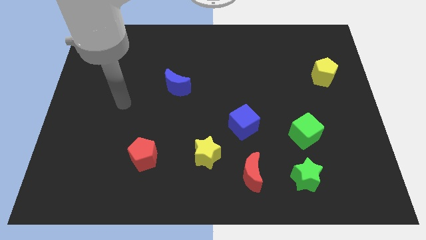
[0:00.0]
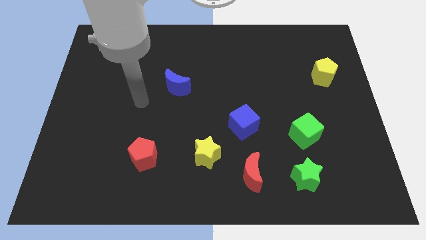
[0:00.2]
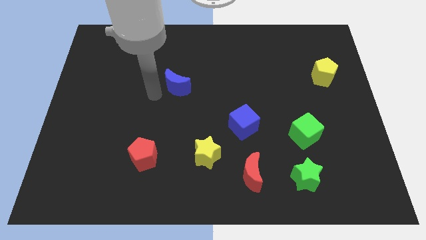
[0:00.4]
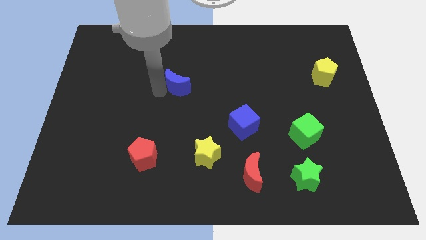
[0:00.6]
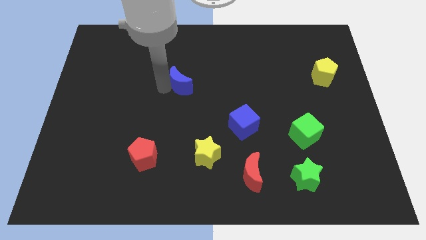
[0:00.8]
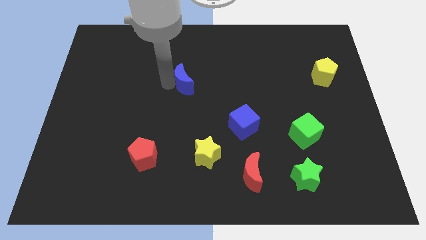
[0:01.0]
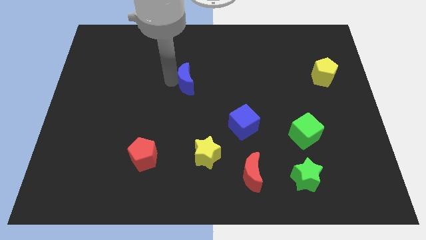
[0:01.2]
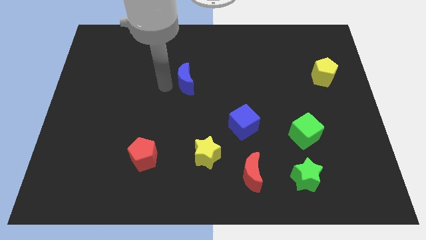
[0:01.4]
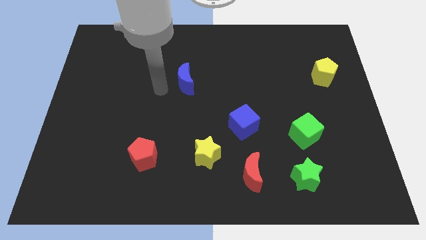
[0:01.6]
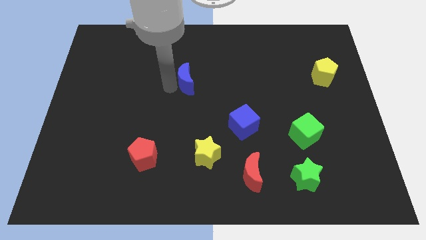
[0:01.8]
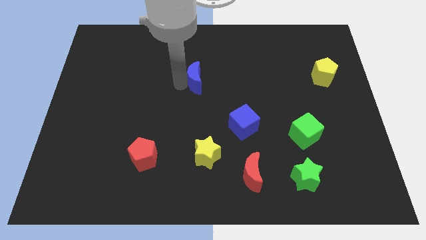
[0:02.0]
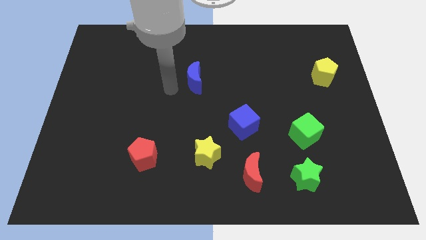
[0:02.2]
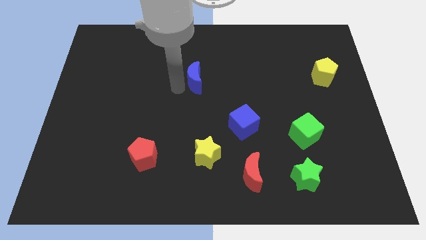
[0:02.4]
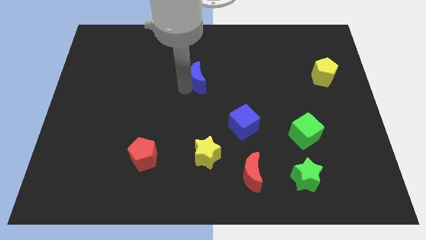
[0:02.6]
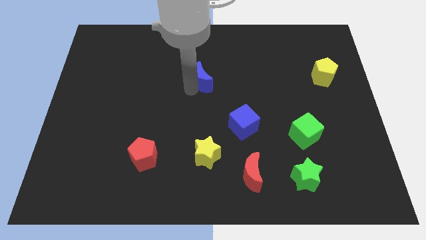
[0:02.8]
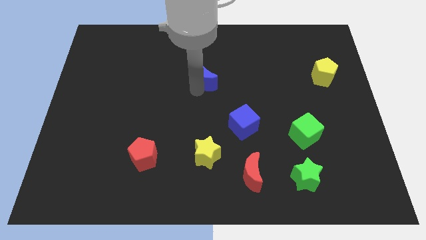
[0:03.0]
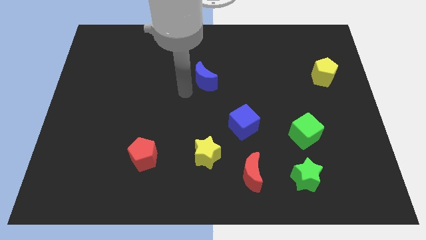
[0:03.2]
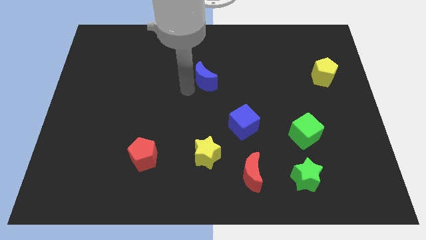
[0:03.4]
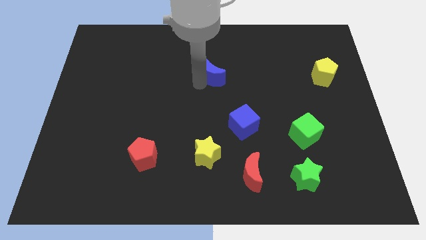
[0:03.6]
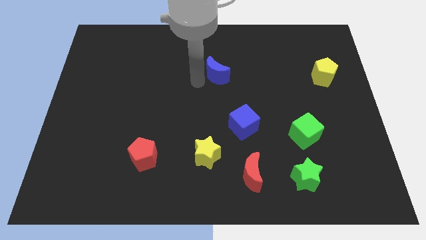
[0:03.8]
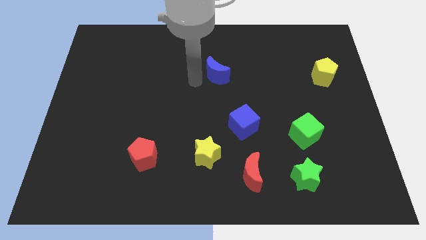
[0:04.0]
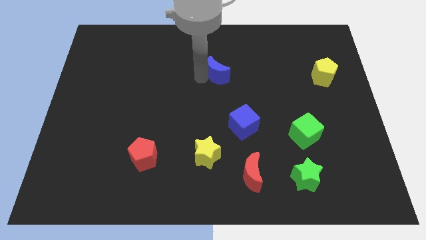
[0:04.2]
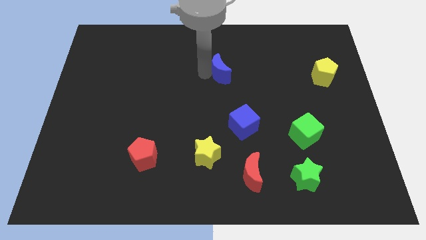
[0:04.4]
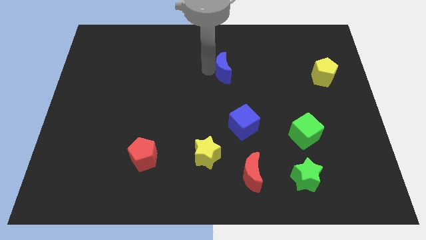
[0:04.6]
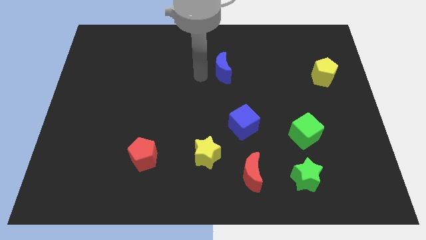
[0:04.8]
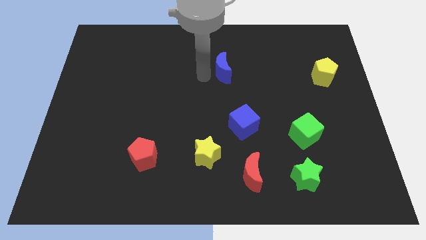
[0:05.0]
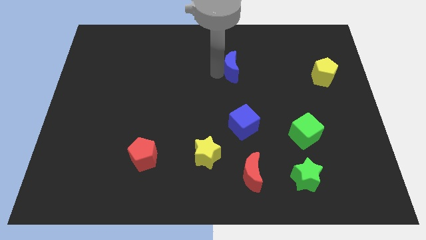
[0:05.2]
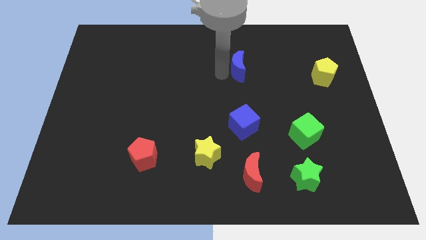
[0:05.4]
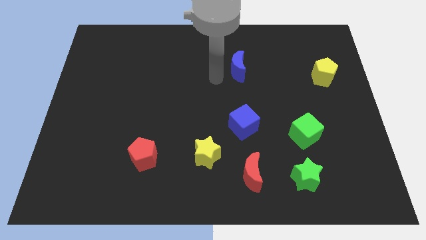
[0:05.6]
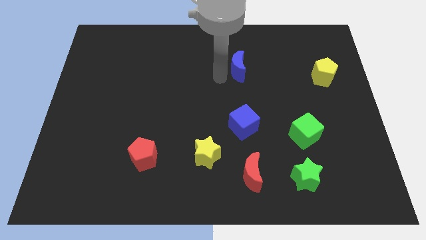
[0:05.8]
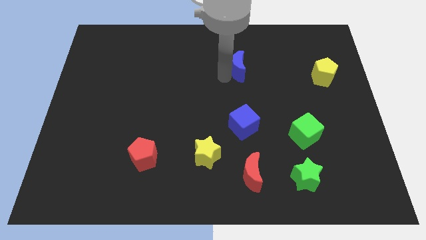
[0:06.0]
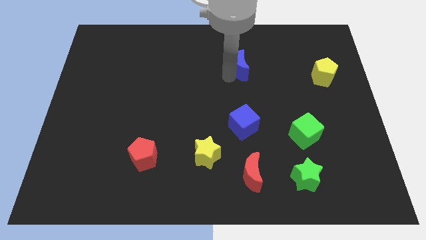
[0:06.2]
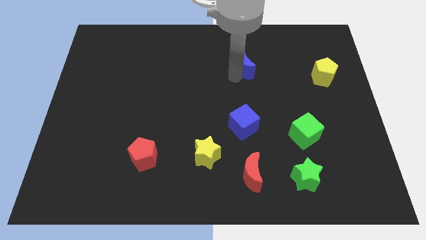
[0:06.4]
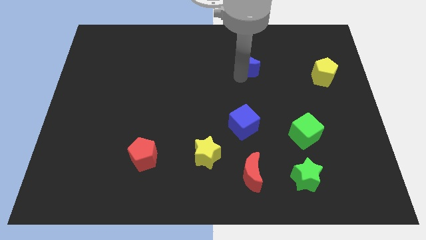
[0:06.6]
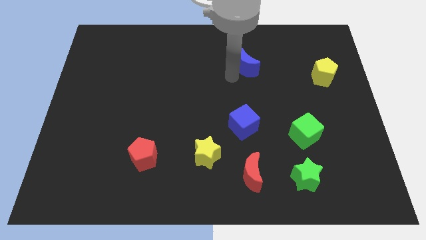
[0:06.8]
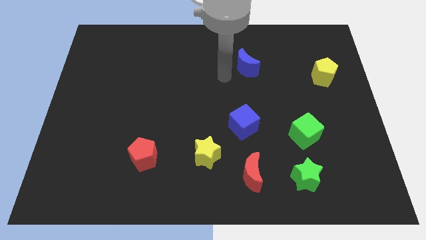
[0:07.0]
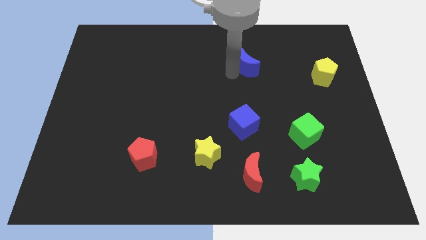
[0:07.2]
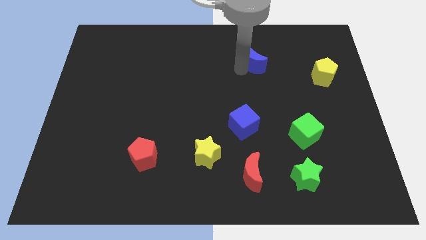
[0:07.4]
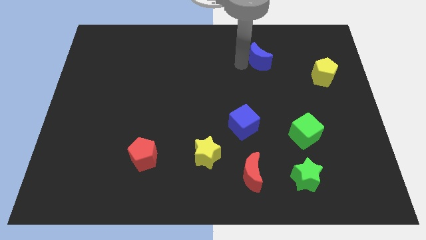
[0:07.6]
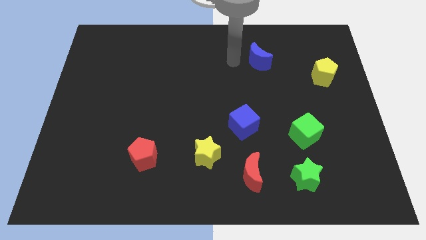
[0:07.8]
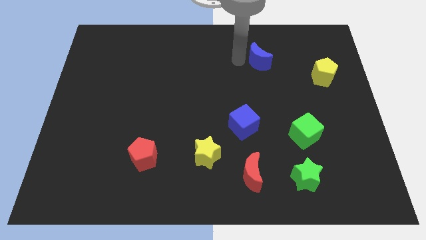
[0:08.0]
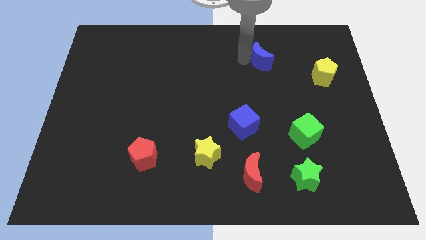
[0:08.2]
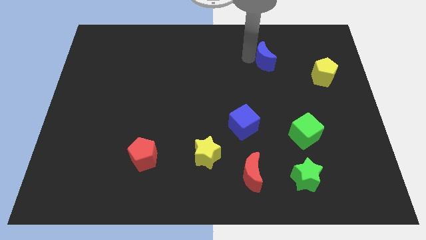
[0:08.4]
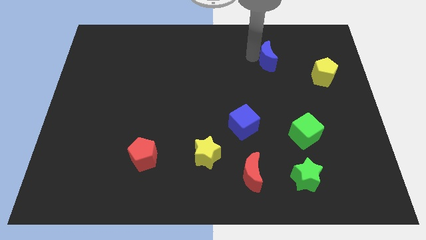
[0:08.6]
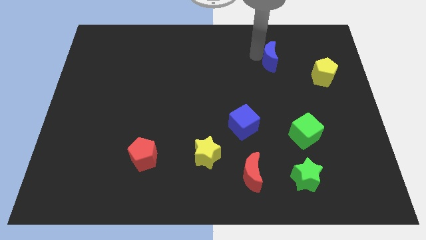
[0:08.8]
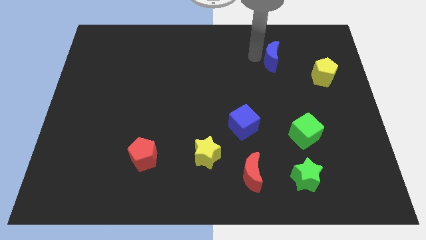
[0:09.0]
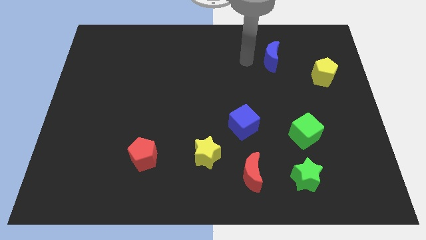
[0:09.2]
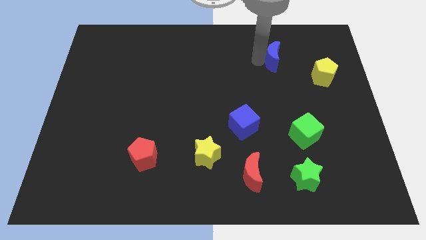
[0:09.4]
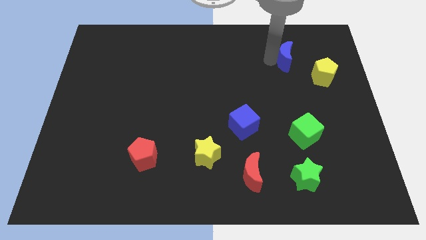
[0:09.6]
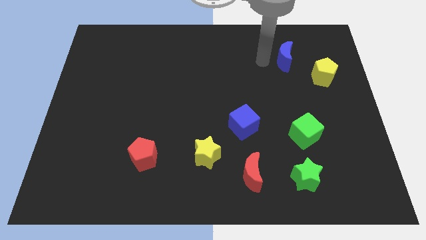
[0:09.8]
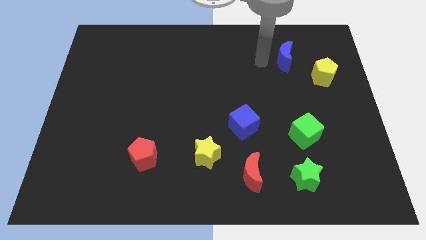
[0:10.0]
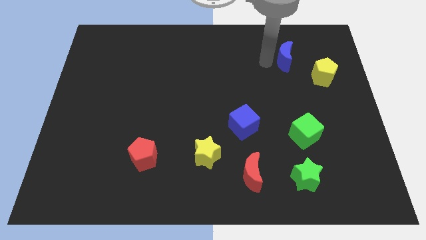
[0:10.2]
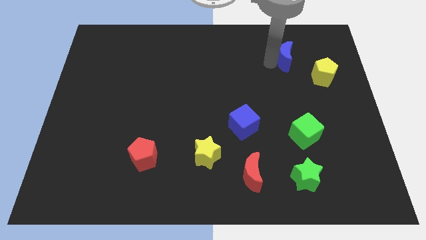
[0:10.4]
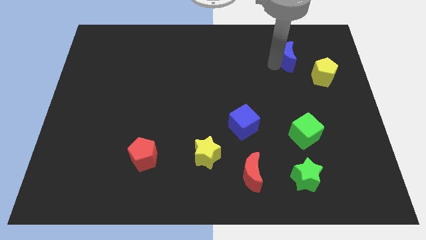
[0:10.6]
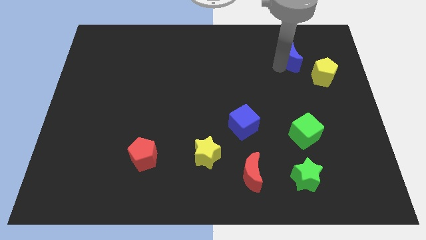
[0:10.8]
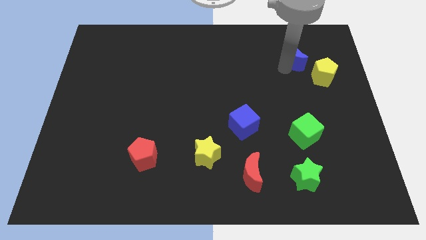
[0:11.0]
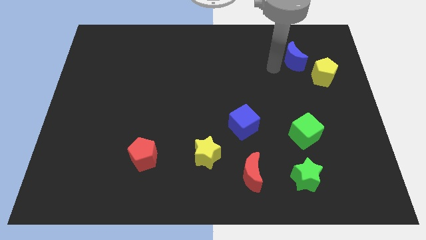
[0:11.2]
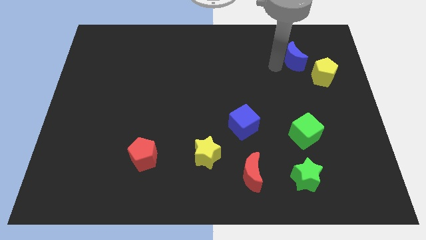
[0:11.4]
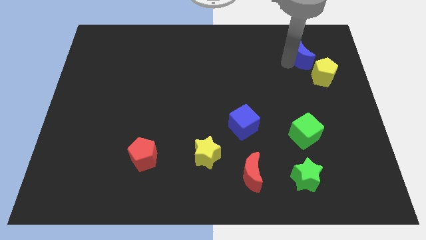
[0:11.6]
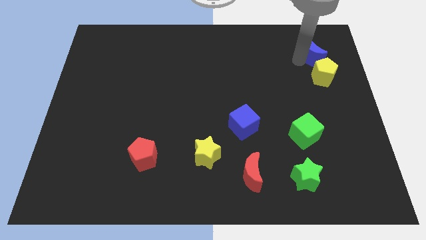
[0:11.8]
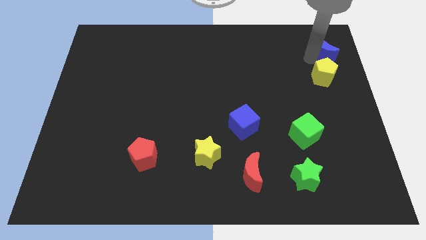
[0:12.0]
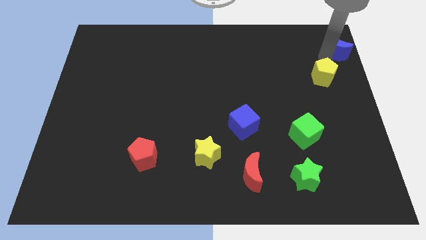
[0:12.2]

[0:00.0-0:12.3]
slide the blue moon to the top right
